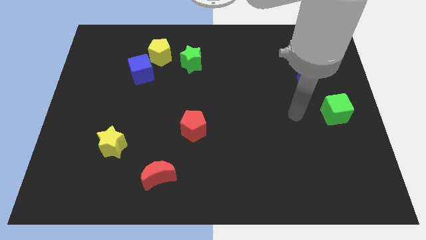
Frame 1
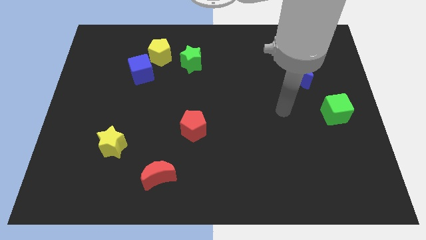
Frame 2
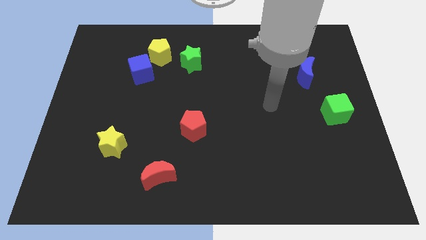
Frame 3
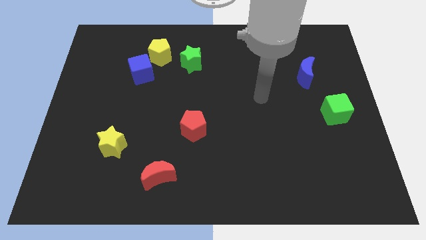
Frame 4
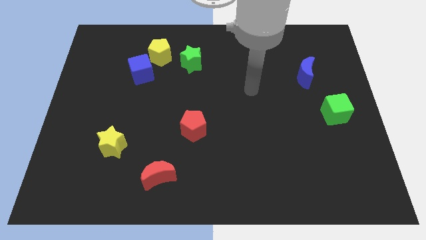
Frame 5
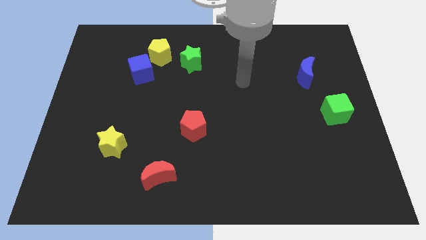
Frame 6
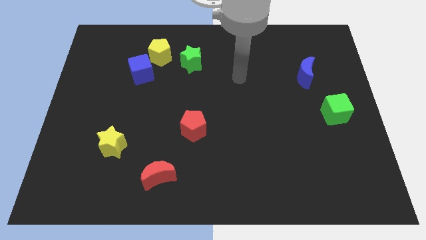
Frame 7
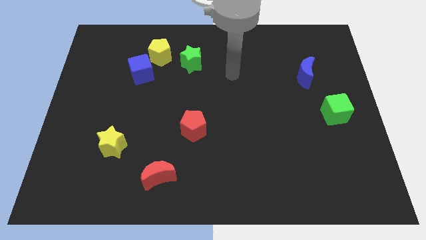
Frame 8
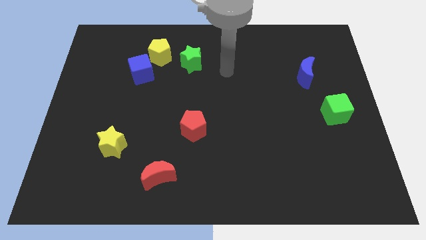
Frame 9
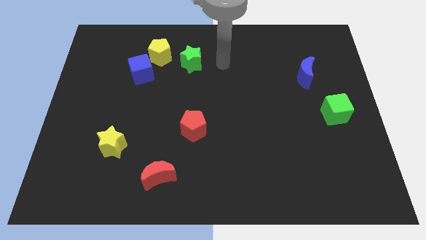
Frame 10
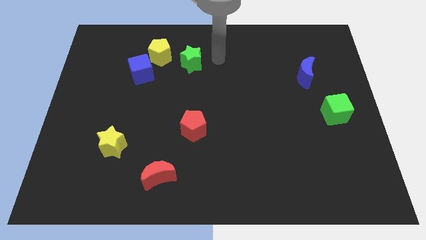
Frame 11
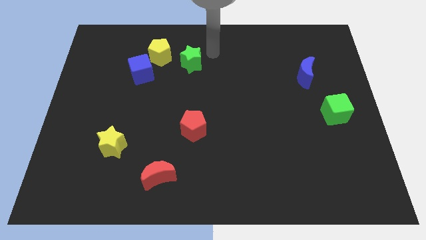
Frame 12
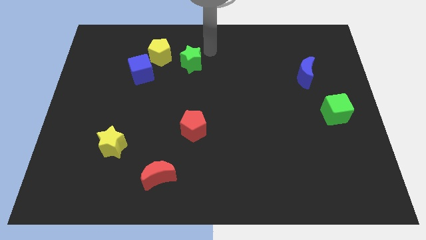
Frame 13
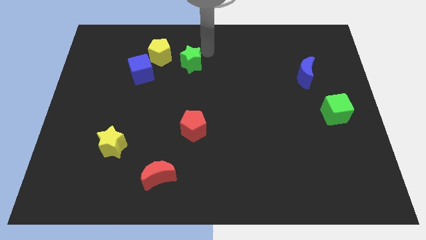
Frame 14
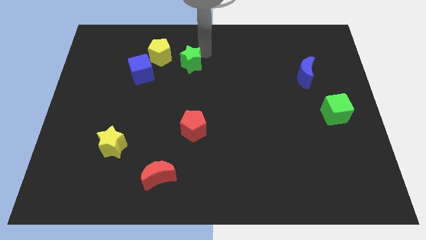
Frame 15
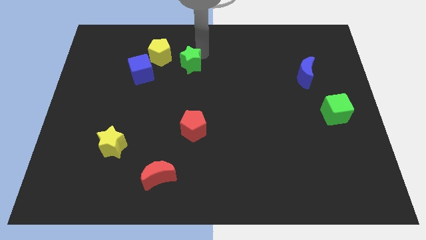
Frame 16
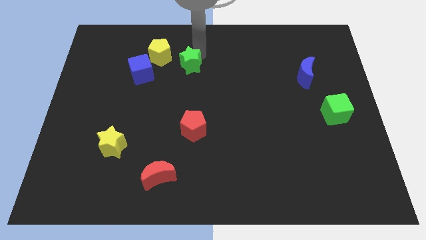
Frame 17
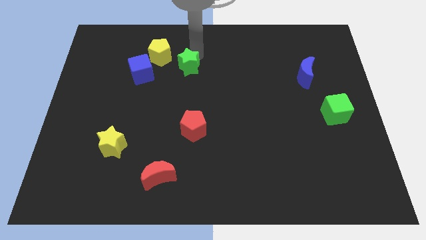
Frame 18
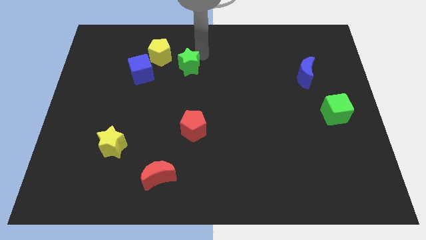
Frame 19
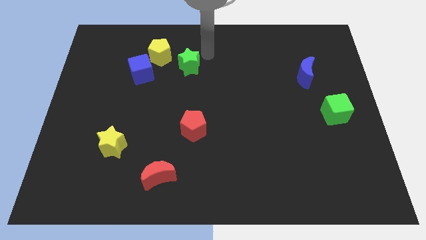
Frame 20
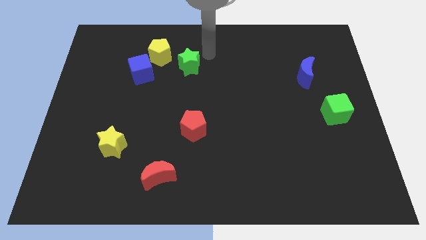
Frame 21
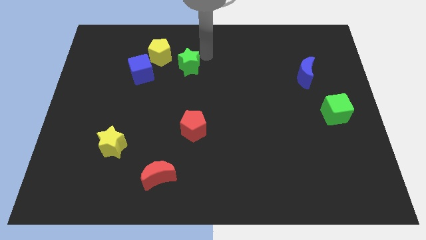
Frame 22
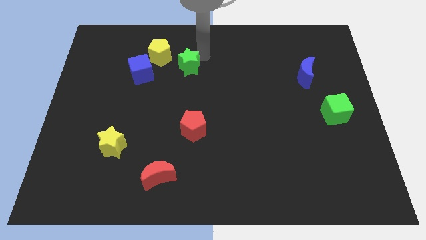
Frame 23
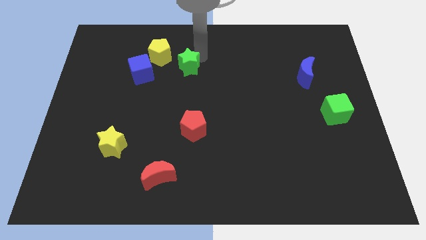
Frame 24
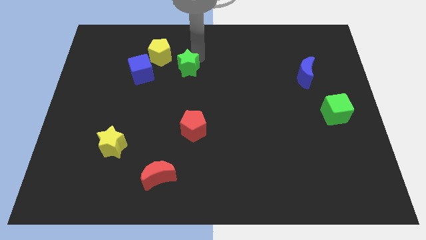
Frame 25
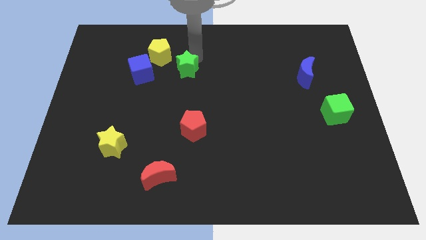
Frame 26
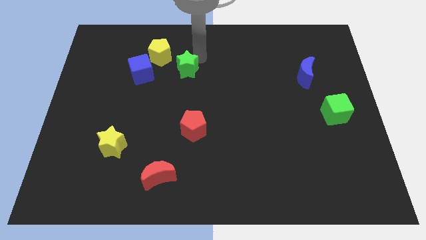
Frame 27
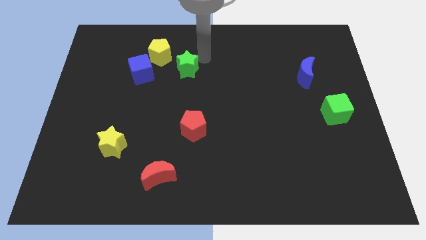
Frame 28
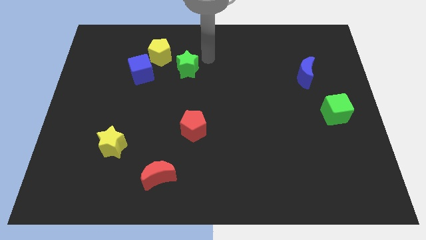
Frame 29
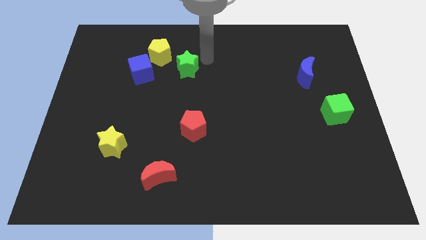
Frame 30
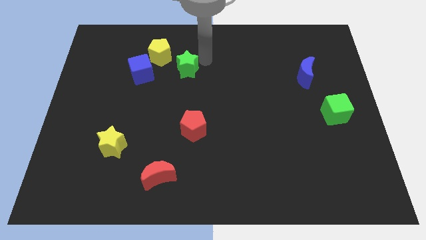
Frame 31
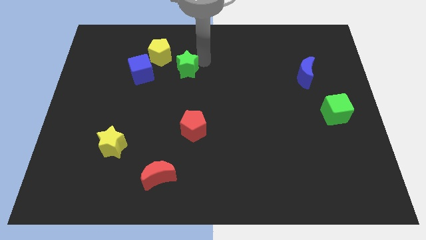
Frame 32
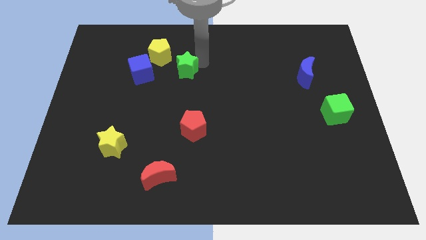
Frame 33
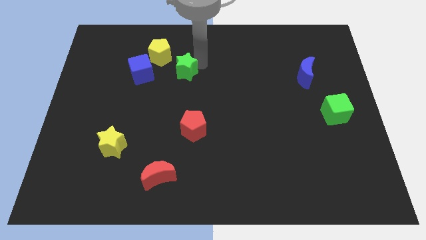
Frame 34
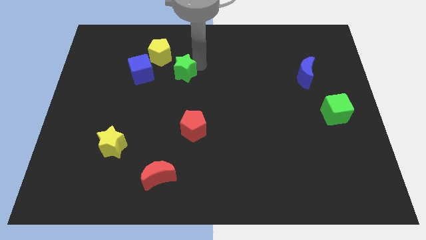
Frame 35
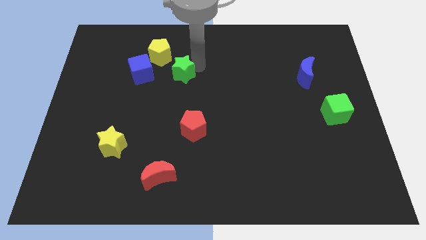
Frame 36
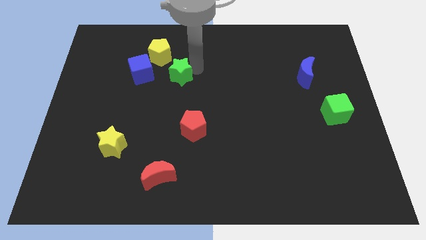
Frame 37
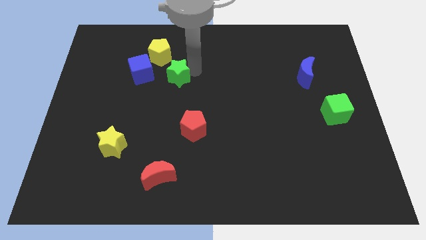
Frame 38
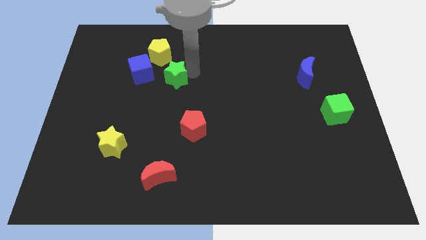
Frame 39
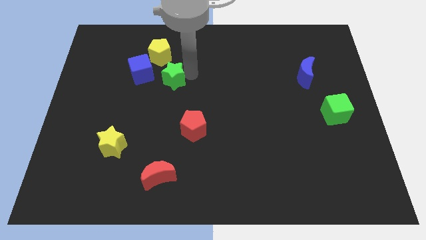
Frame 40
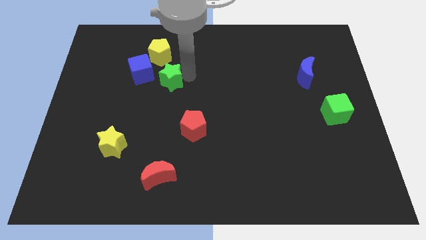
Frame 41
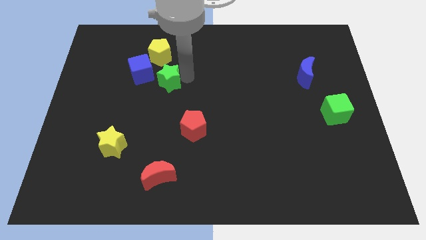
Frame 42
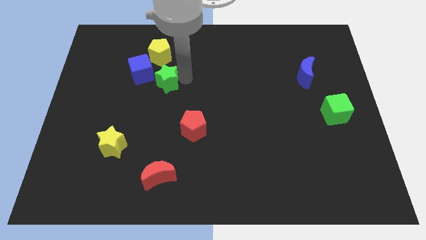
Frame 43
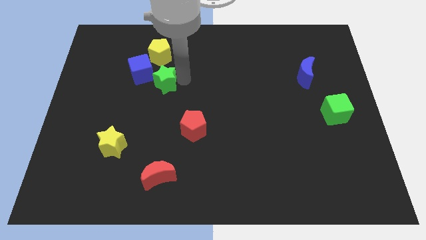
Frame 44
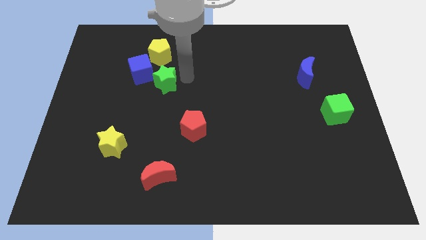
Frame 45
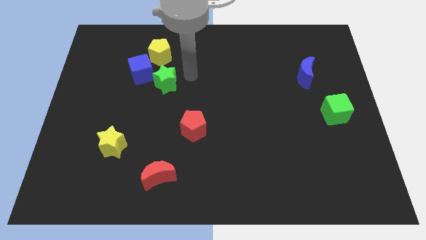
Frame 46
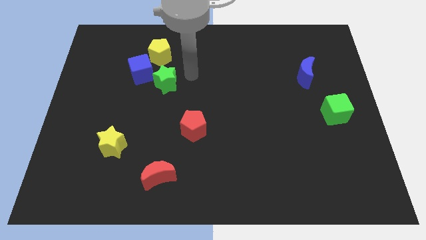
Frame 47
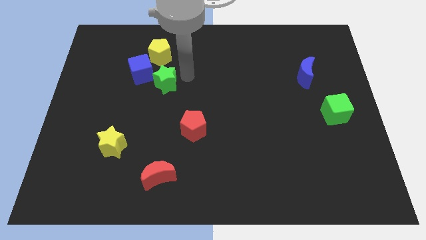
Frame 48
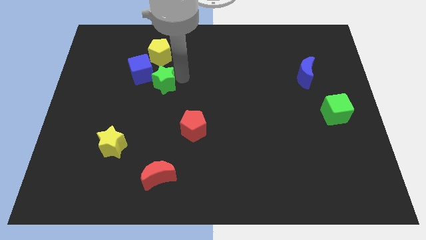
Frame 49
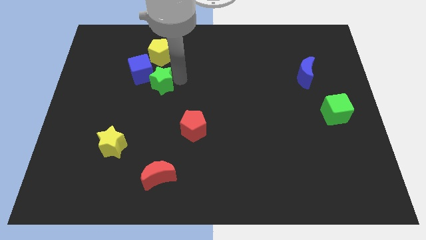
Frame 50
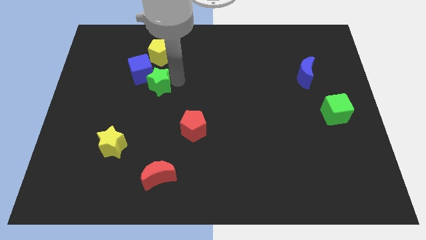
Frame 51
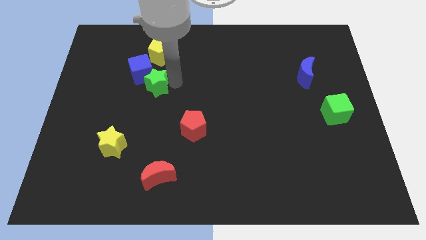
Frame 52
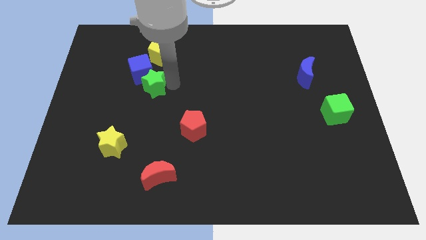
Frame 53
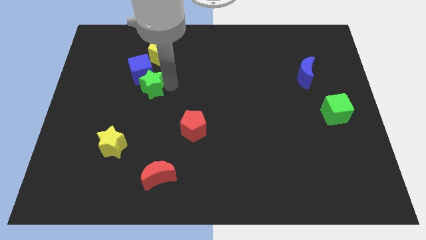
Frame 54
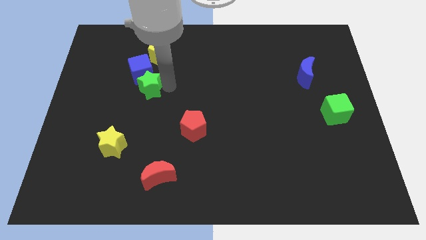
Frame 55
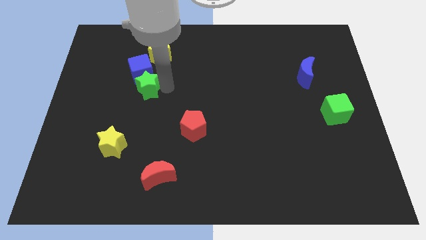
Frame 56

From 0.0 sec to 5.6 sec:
slightly move the green star to the left

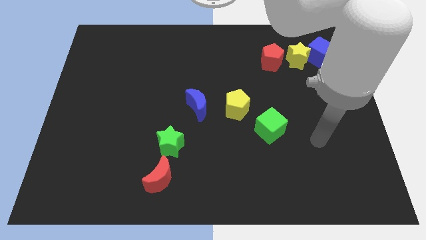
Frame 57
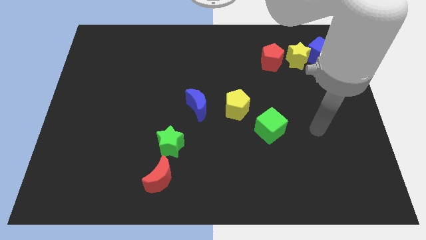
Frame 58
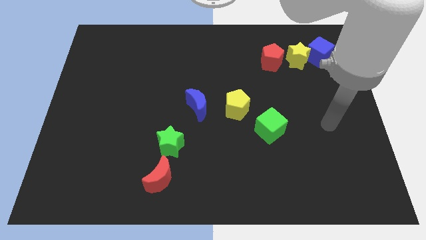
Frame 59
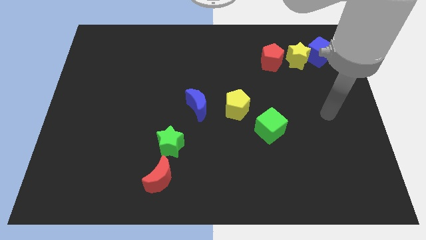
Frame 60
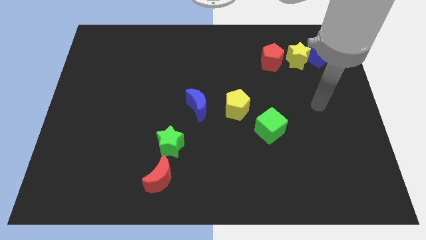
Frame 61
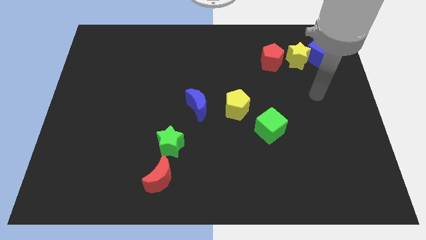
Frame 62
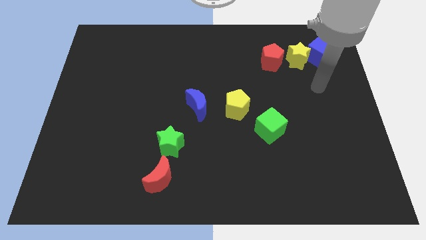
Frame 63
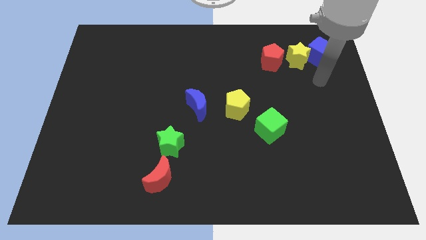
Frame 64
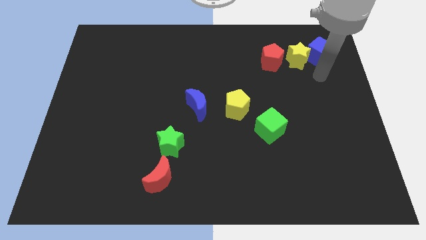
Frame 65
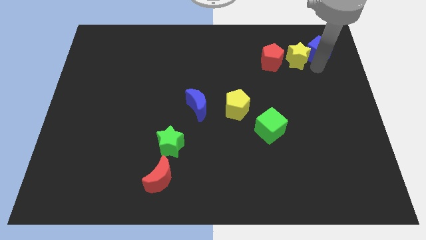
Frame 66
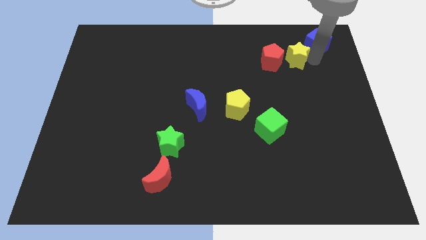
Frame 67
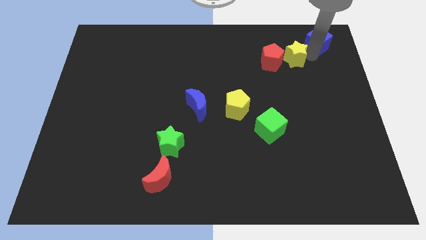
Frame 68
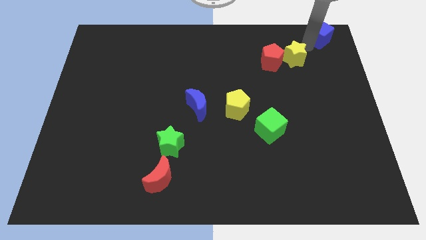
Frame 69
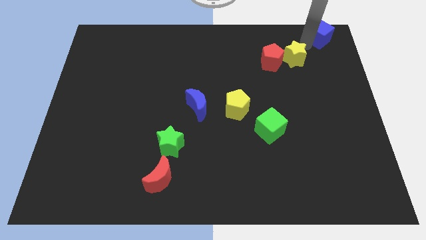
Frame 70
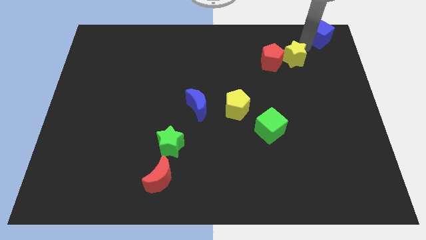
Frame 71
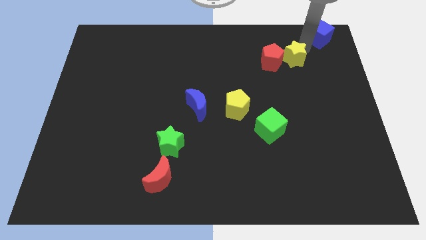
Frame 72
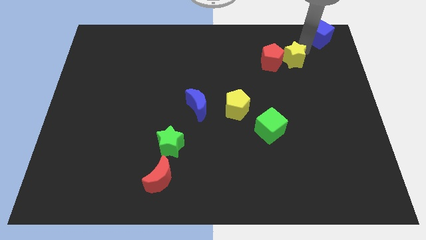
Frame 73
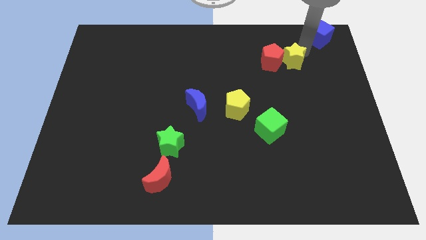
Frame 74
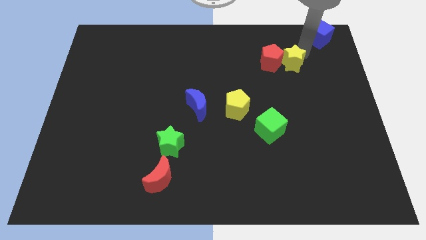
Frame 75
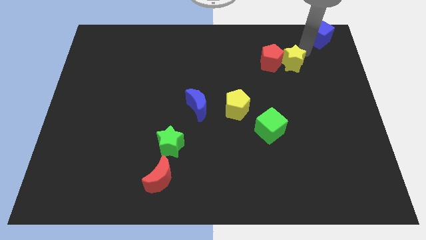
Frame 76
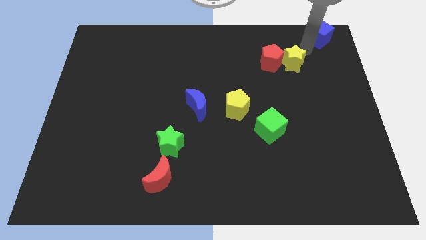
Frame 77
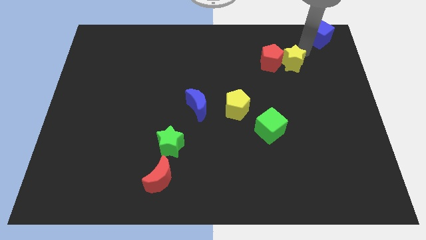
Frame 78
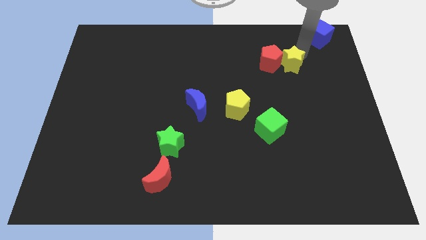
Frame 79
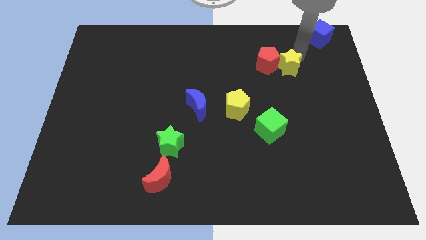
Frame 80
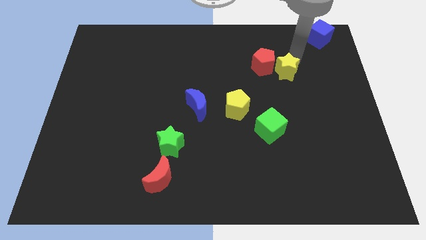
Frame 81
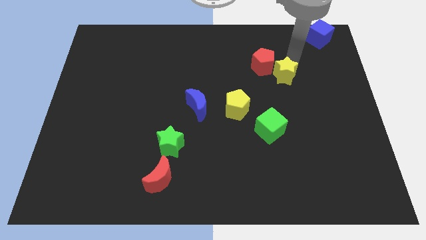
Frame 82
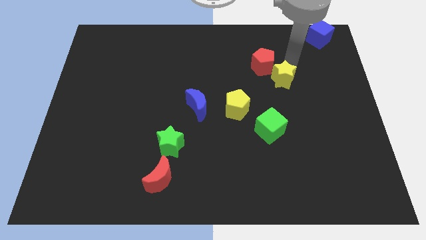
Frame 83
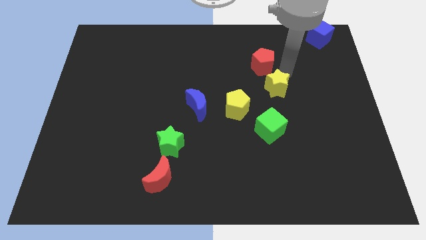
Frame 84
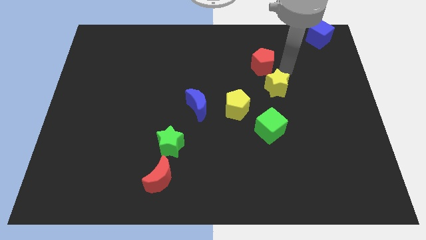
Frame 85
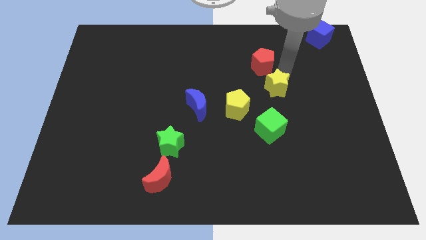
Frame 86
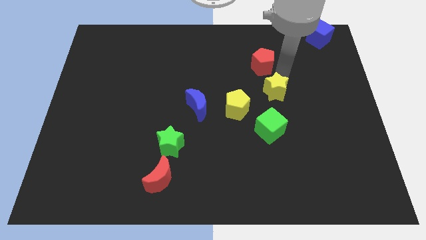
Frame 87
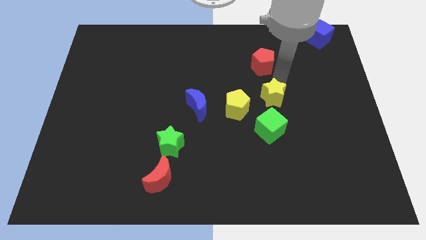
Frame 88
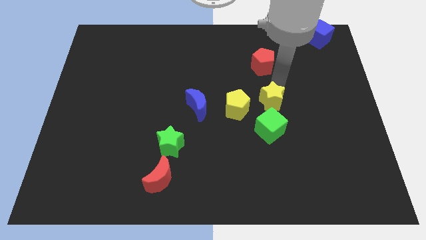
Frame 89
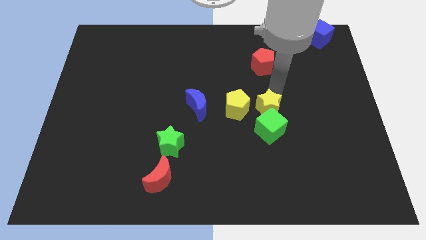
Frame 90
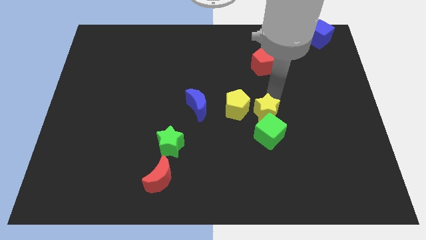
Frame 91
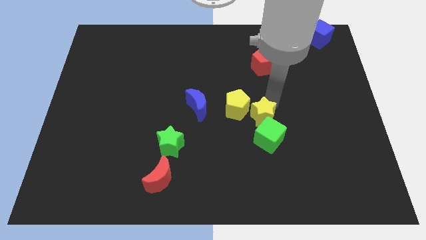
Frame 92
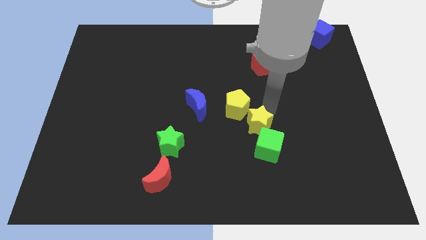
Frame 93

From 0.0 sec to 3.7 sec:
push the yellow star diagonally downwards and left
